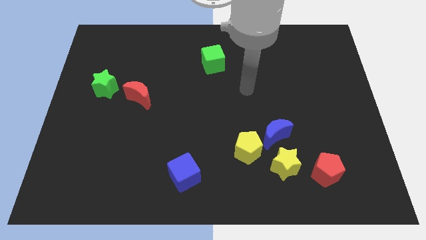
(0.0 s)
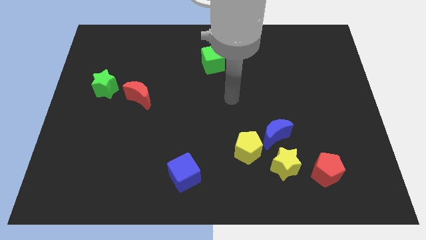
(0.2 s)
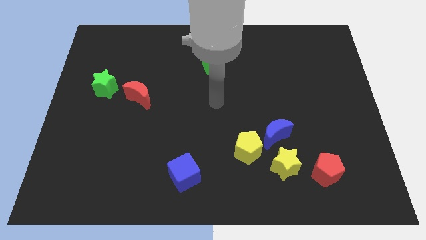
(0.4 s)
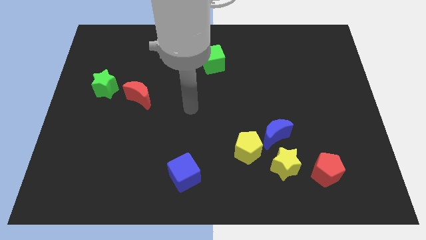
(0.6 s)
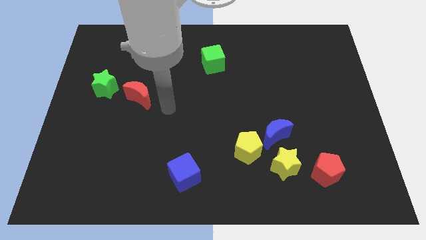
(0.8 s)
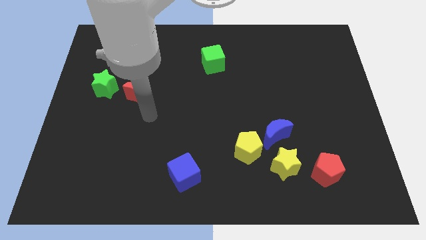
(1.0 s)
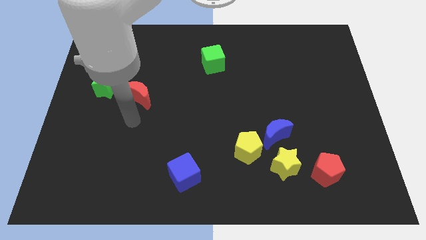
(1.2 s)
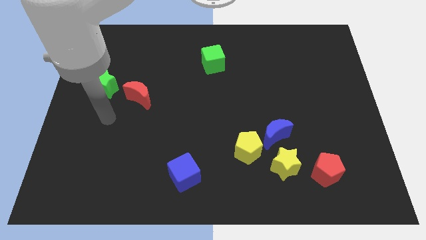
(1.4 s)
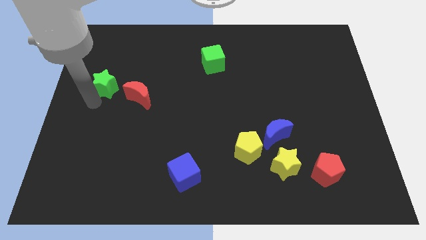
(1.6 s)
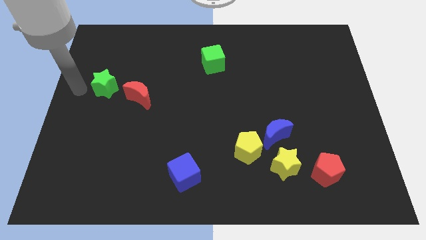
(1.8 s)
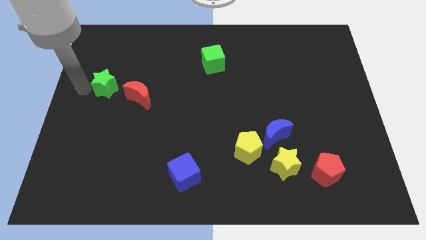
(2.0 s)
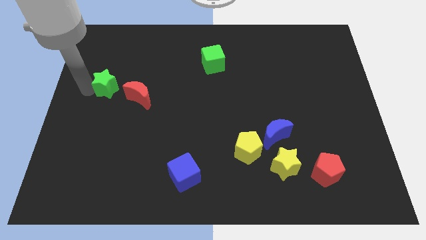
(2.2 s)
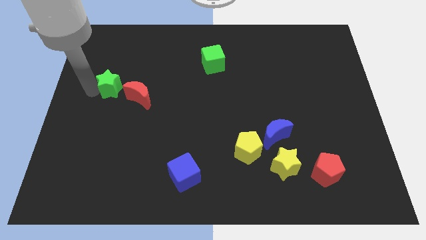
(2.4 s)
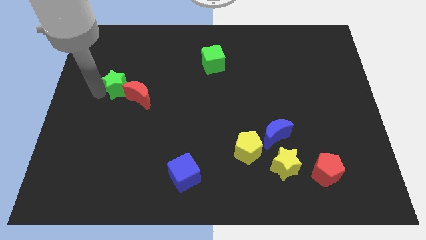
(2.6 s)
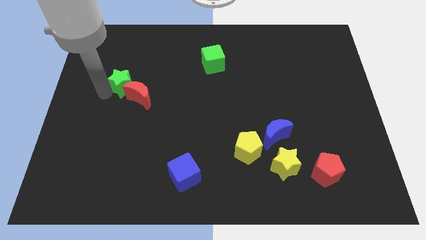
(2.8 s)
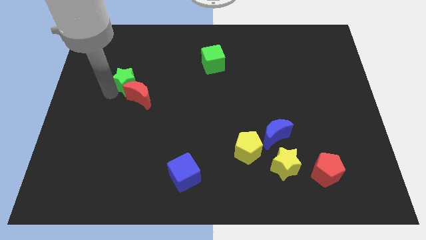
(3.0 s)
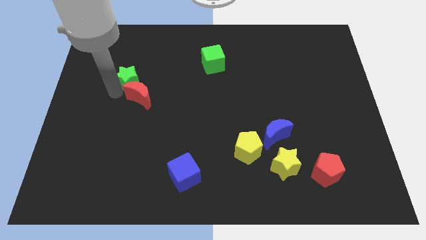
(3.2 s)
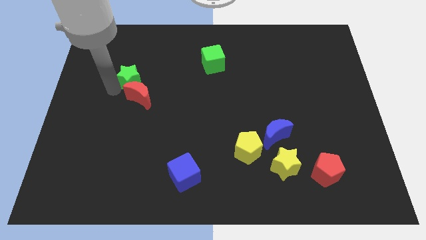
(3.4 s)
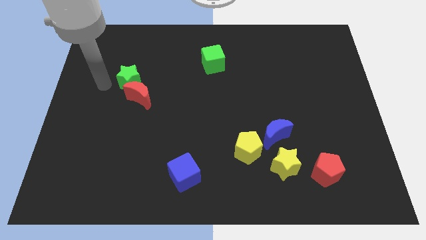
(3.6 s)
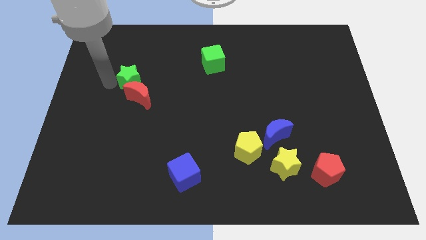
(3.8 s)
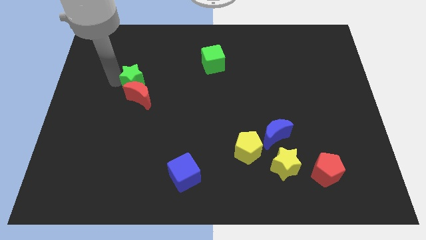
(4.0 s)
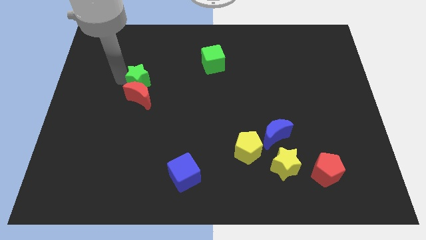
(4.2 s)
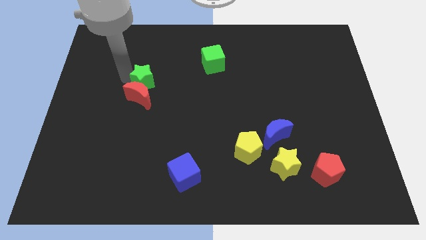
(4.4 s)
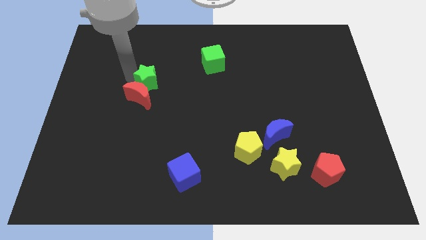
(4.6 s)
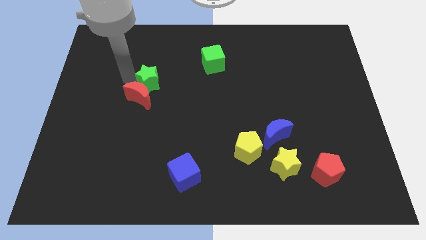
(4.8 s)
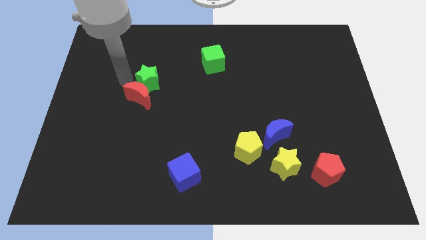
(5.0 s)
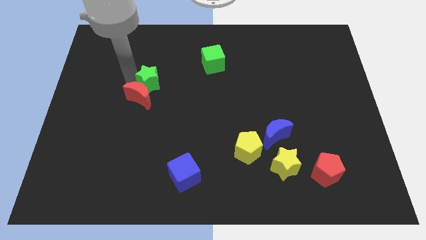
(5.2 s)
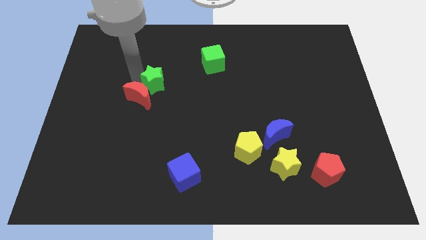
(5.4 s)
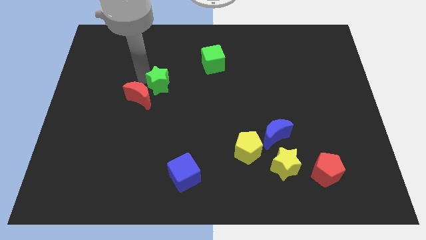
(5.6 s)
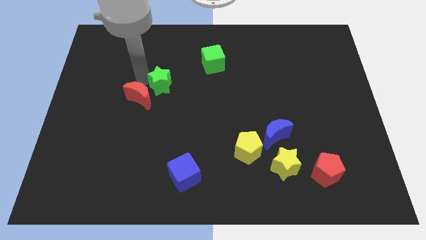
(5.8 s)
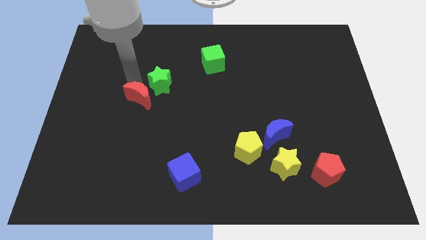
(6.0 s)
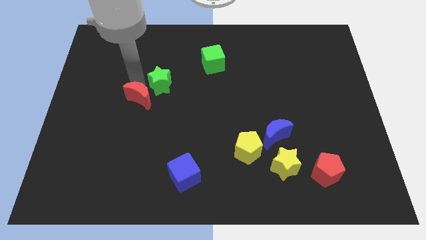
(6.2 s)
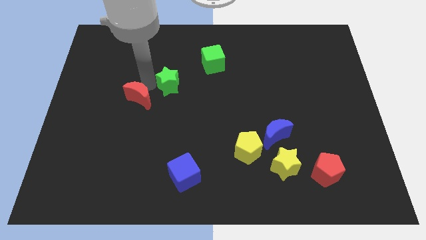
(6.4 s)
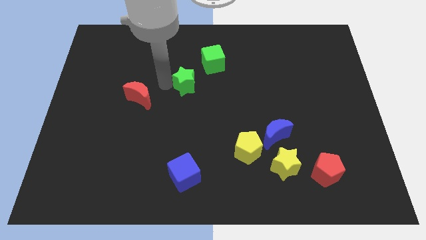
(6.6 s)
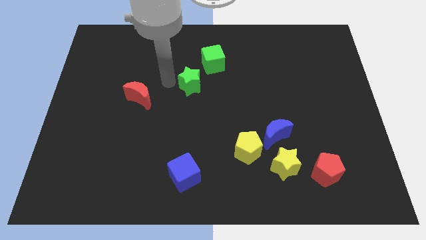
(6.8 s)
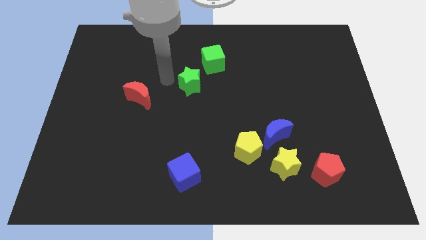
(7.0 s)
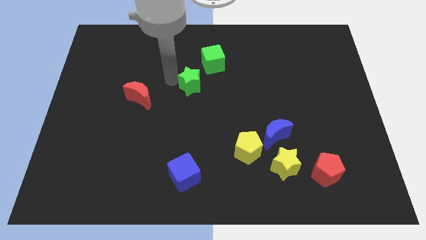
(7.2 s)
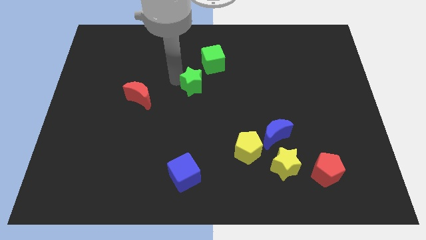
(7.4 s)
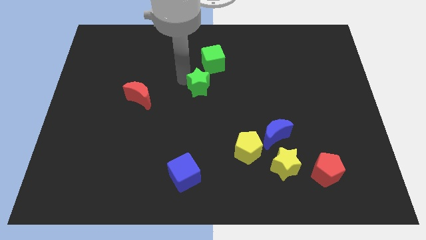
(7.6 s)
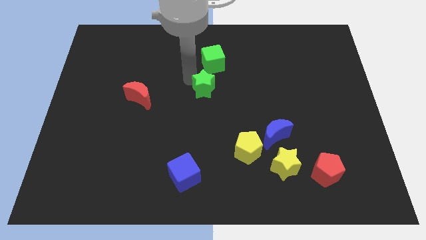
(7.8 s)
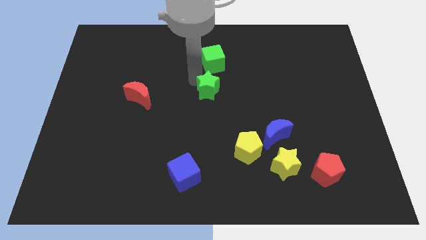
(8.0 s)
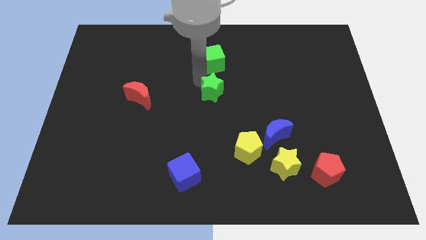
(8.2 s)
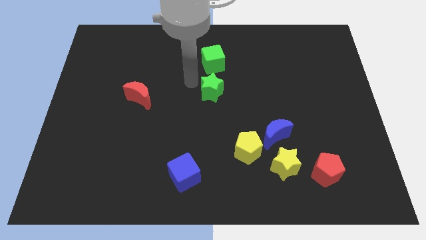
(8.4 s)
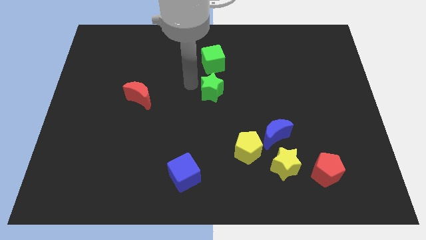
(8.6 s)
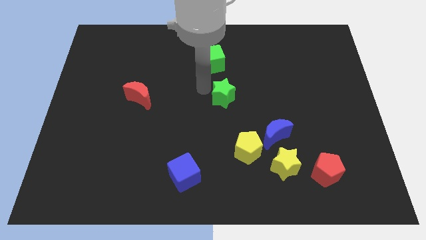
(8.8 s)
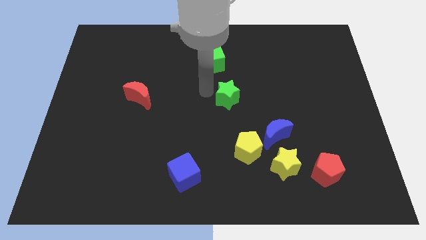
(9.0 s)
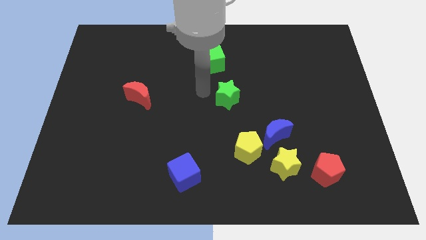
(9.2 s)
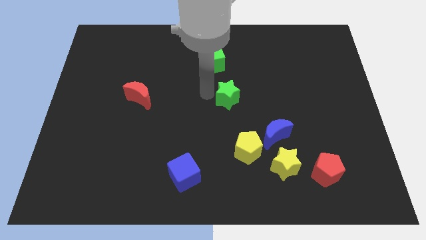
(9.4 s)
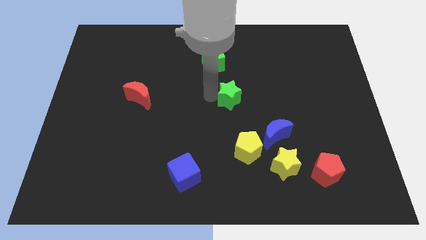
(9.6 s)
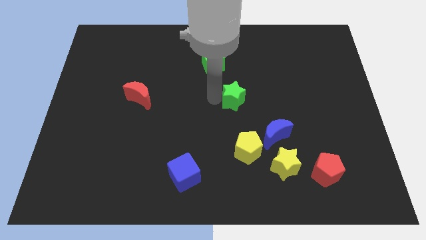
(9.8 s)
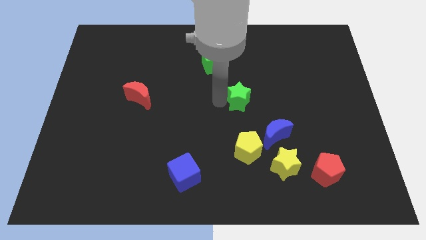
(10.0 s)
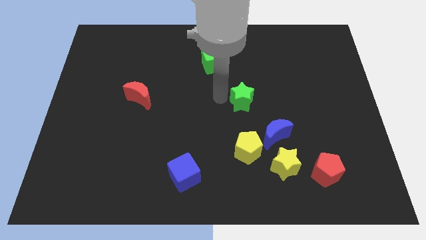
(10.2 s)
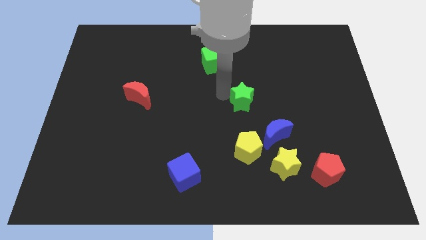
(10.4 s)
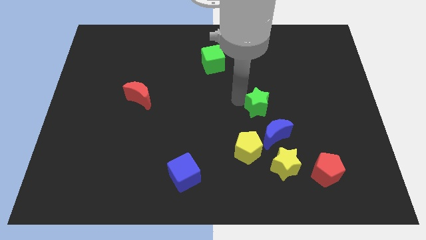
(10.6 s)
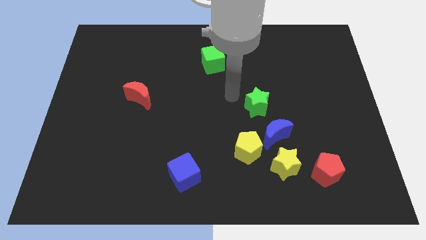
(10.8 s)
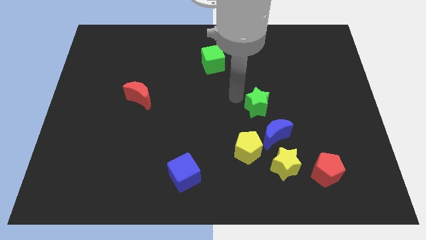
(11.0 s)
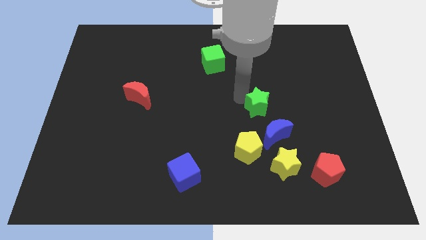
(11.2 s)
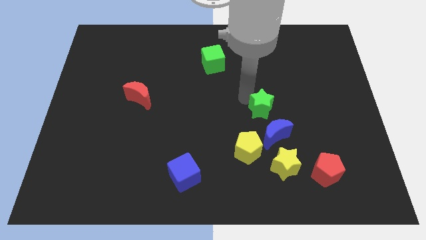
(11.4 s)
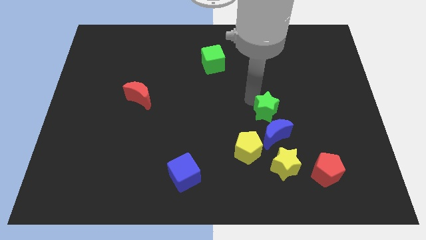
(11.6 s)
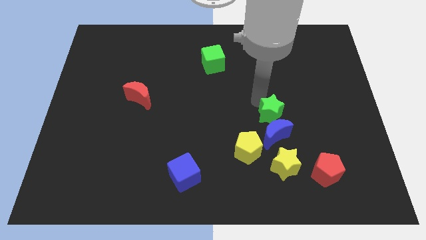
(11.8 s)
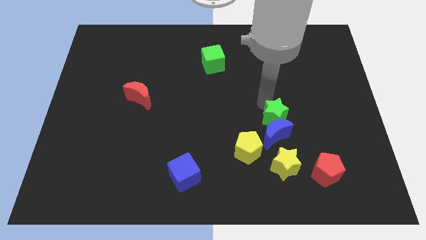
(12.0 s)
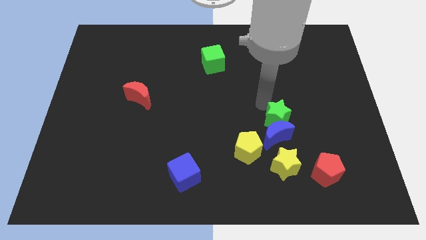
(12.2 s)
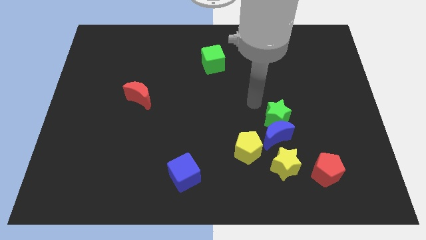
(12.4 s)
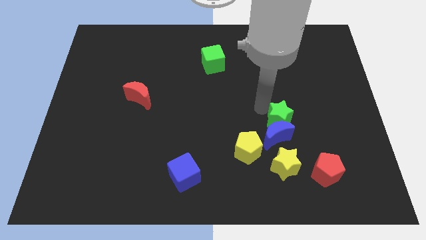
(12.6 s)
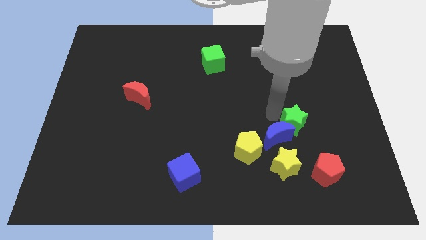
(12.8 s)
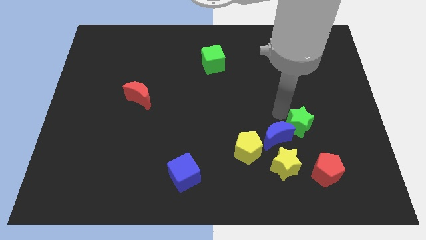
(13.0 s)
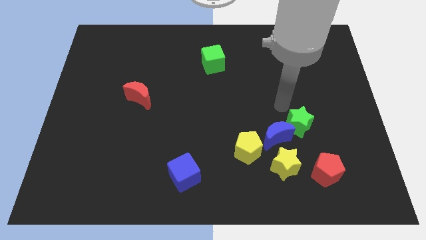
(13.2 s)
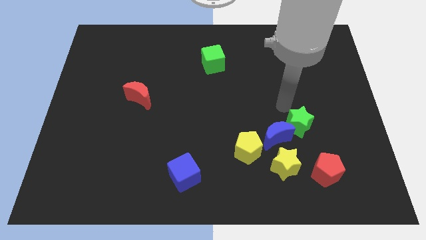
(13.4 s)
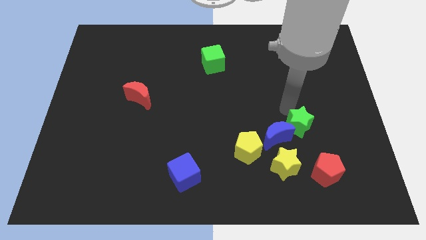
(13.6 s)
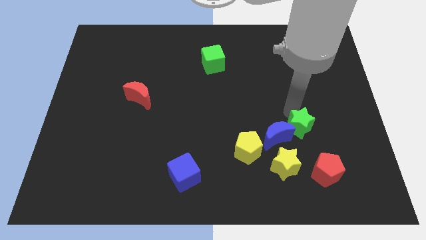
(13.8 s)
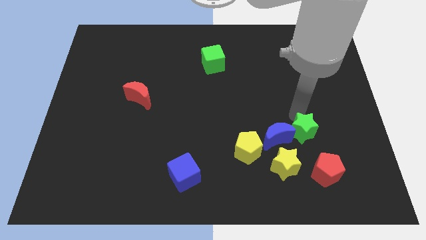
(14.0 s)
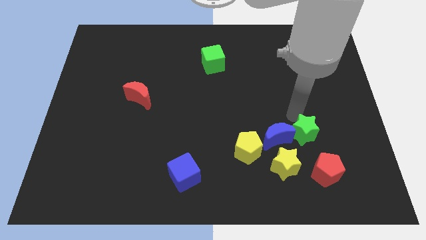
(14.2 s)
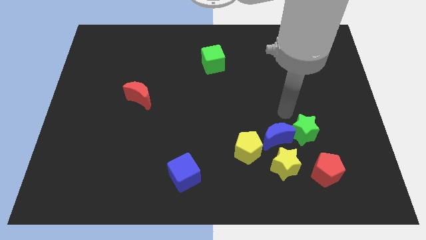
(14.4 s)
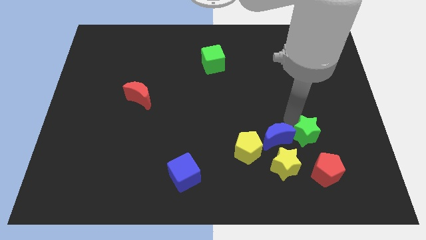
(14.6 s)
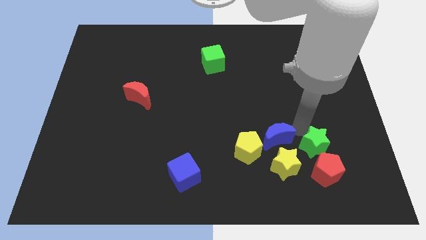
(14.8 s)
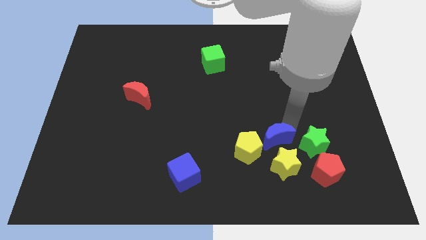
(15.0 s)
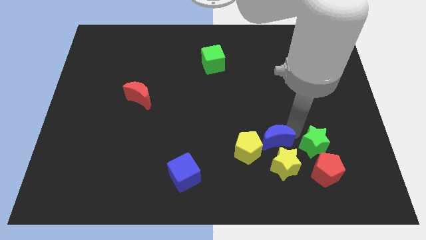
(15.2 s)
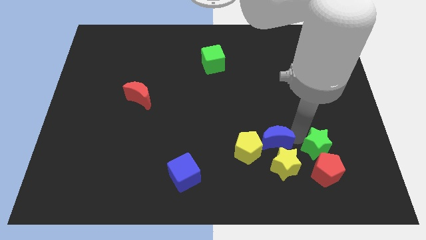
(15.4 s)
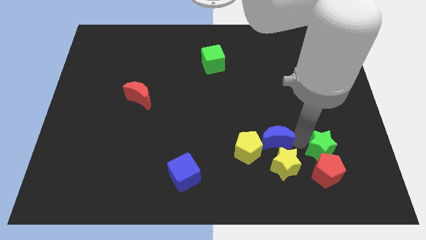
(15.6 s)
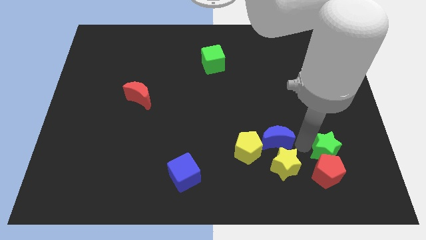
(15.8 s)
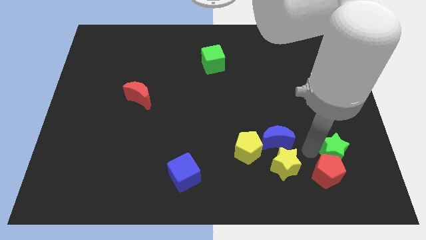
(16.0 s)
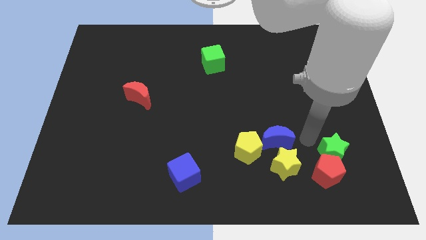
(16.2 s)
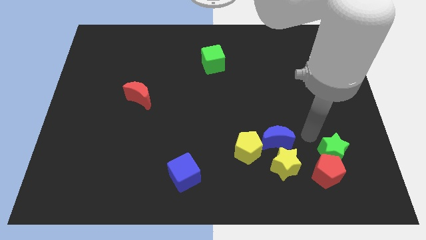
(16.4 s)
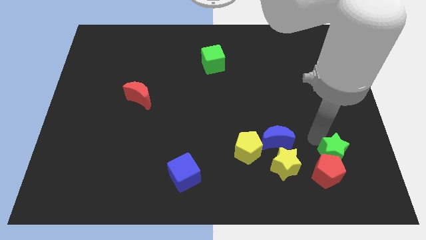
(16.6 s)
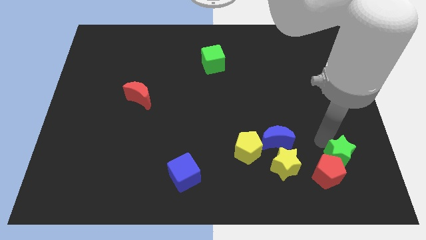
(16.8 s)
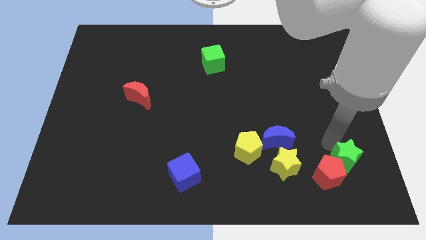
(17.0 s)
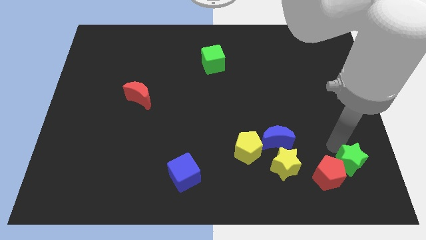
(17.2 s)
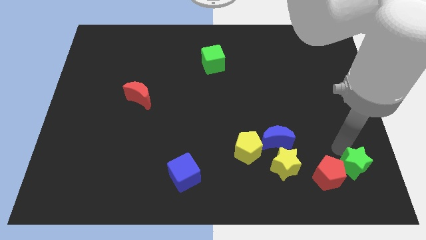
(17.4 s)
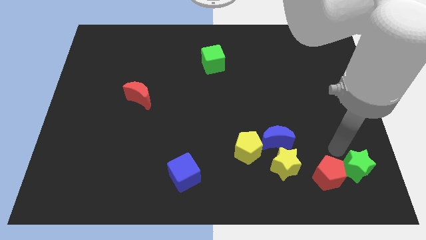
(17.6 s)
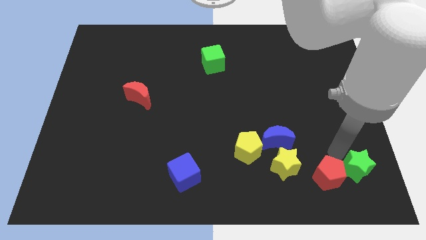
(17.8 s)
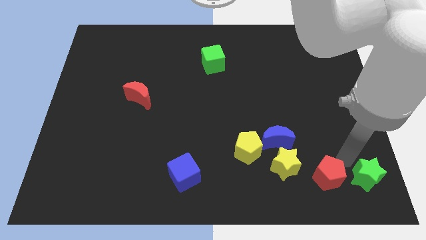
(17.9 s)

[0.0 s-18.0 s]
slide the green star to the bottom right corner
